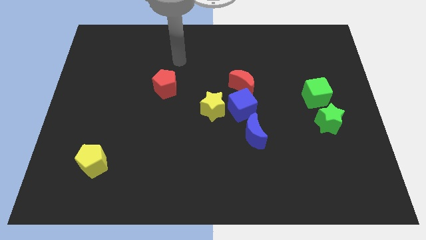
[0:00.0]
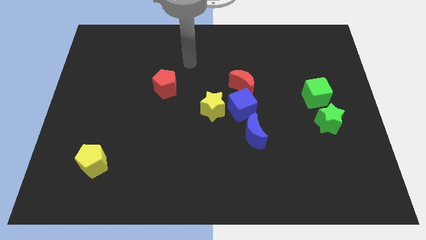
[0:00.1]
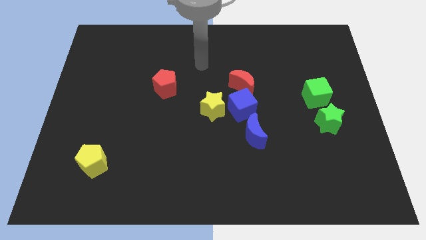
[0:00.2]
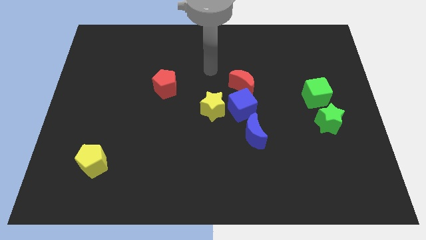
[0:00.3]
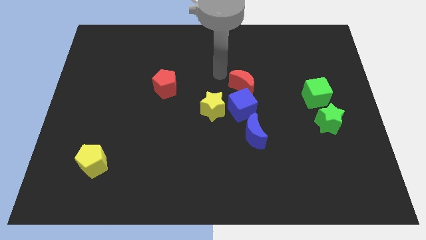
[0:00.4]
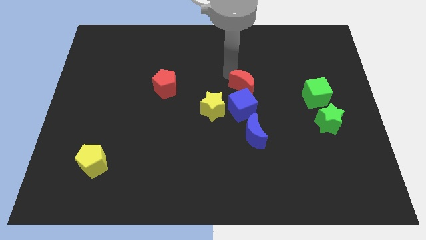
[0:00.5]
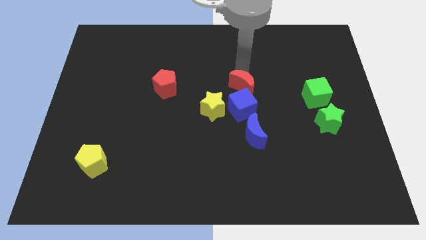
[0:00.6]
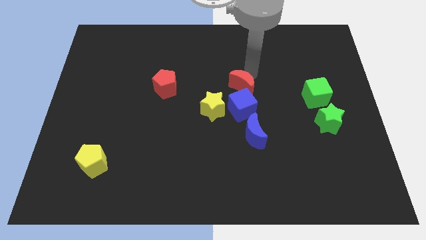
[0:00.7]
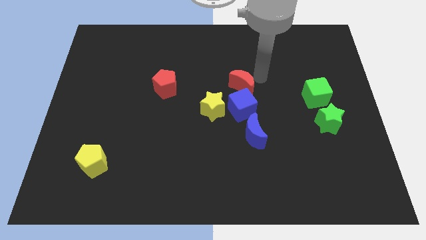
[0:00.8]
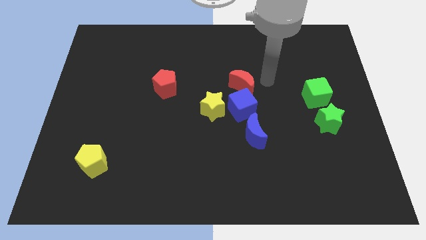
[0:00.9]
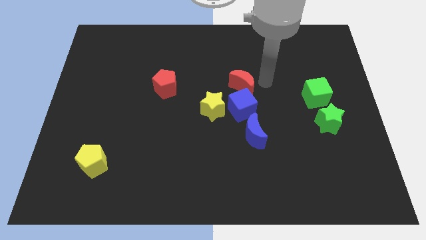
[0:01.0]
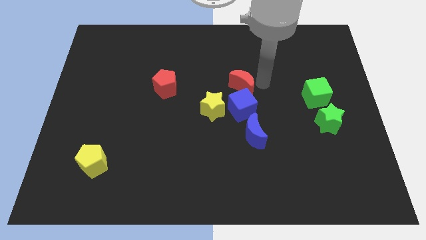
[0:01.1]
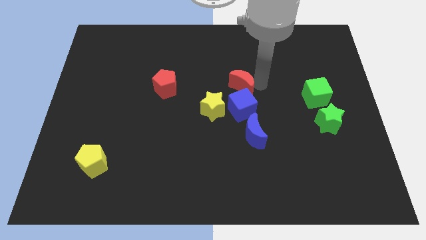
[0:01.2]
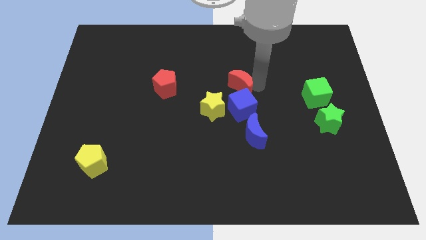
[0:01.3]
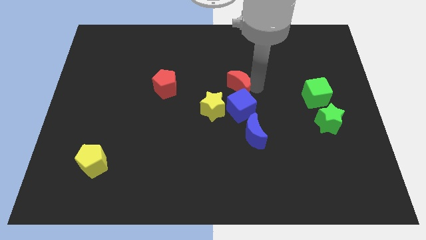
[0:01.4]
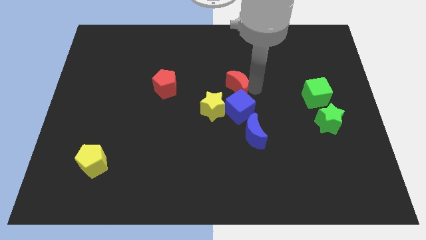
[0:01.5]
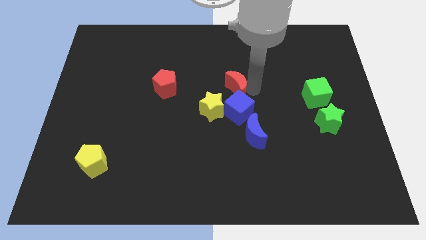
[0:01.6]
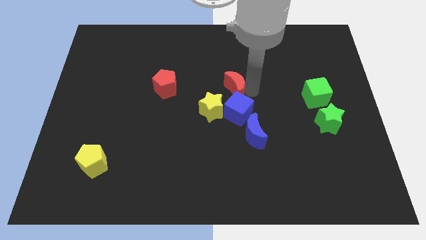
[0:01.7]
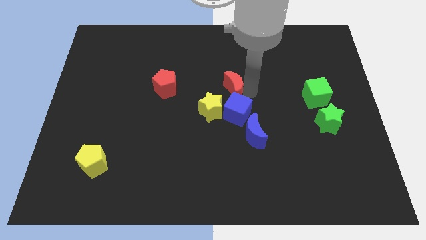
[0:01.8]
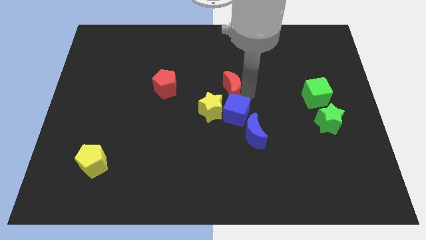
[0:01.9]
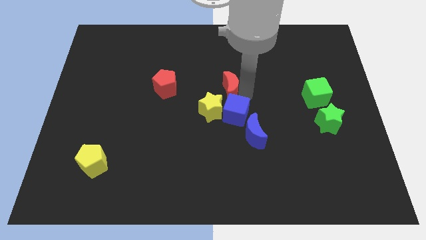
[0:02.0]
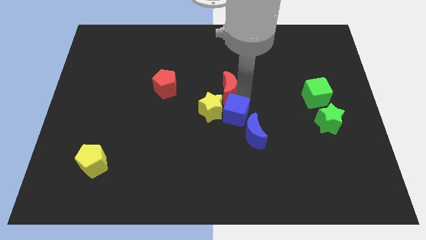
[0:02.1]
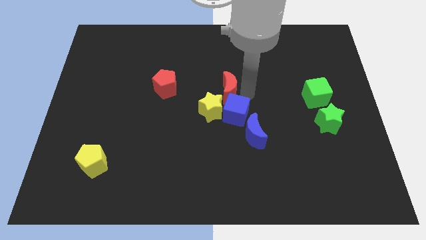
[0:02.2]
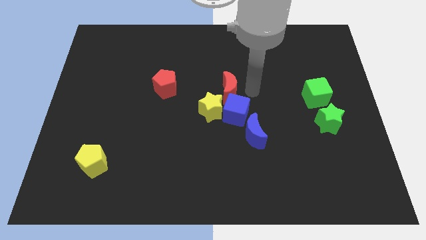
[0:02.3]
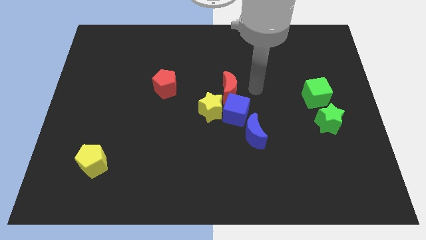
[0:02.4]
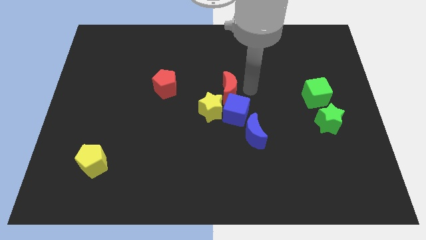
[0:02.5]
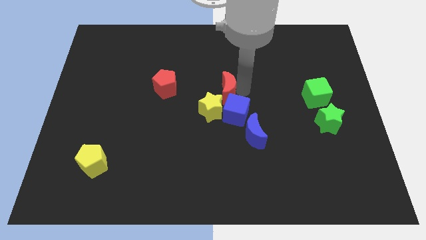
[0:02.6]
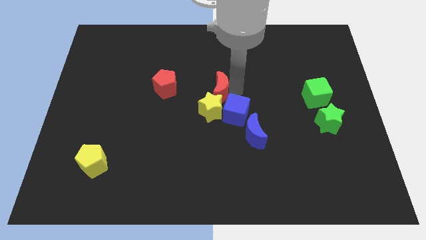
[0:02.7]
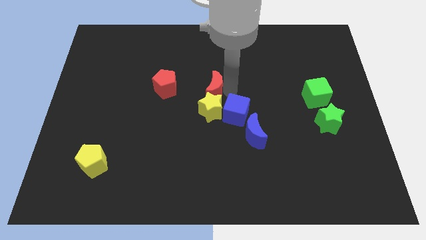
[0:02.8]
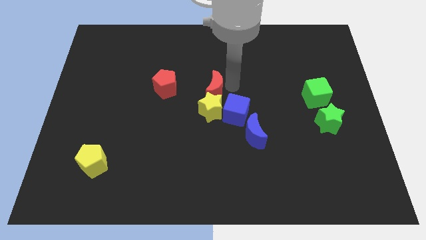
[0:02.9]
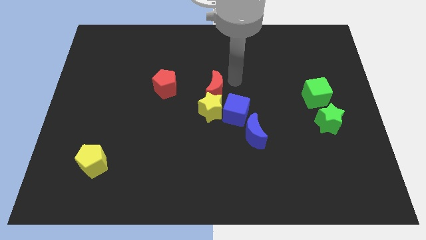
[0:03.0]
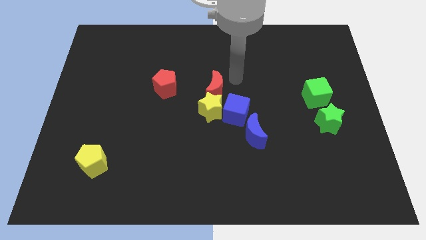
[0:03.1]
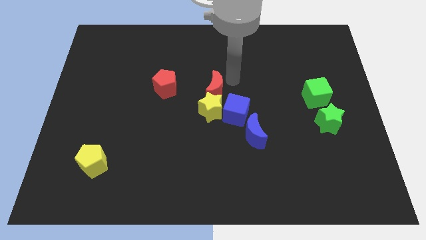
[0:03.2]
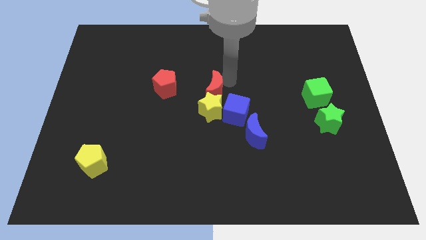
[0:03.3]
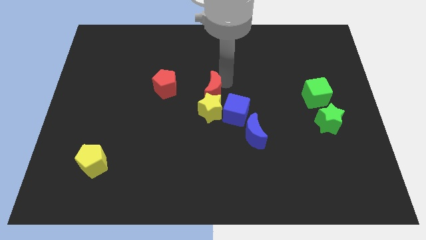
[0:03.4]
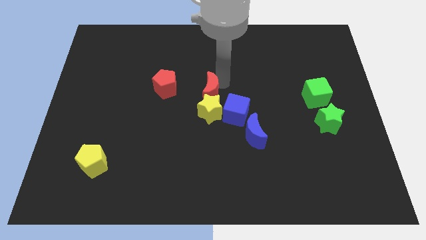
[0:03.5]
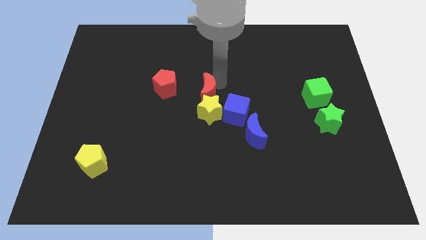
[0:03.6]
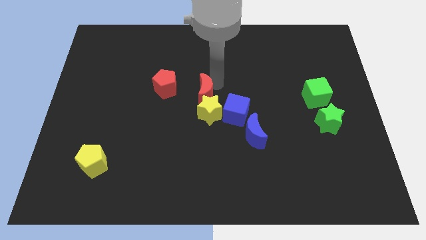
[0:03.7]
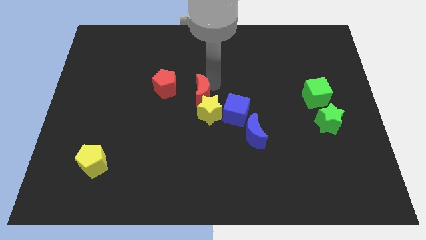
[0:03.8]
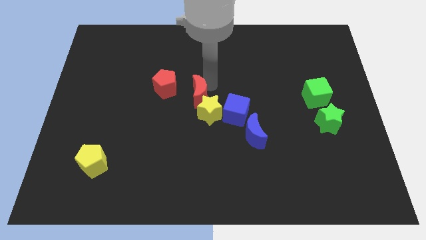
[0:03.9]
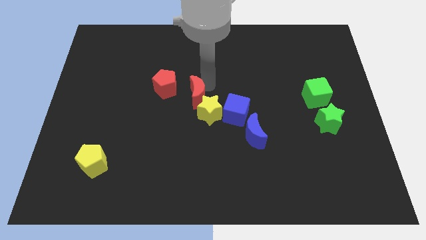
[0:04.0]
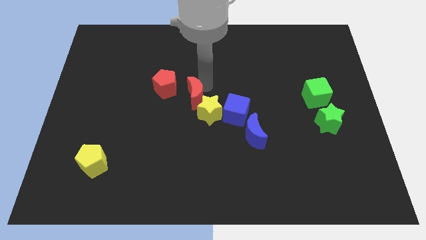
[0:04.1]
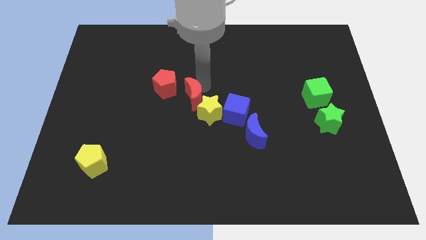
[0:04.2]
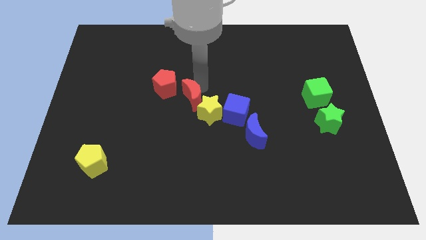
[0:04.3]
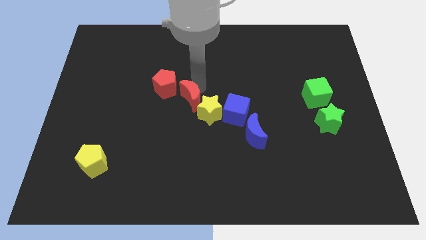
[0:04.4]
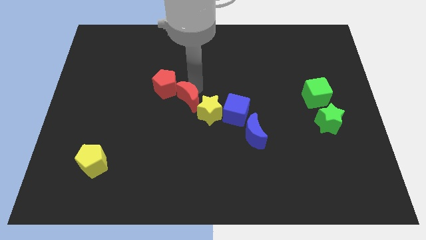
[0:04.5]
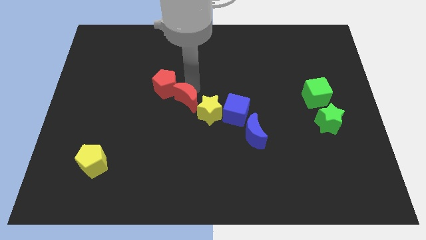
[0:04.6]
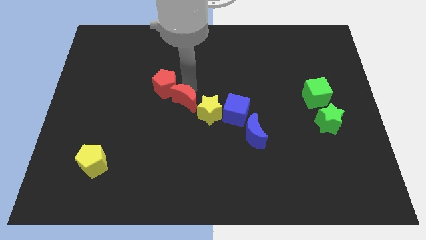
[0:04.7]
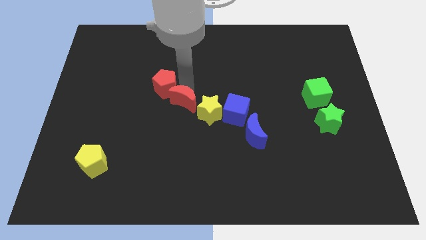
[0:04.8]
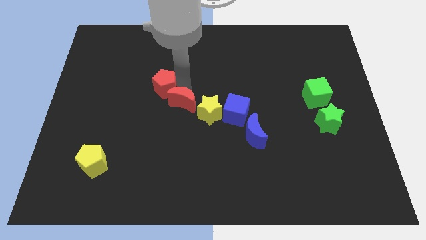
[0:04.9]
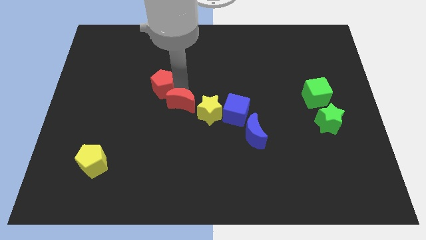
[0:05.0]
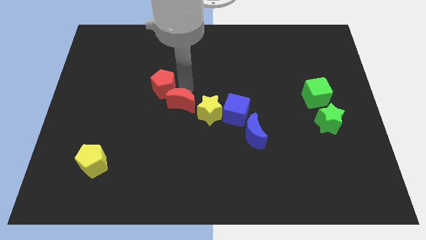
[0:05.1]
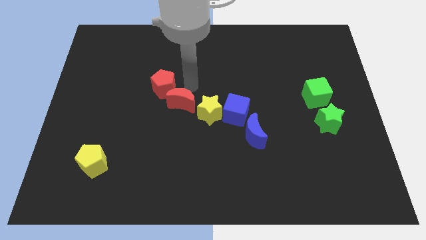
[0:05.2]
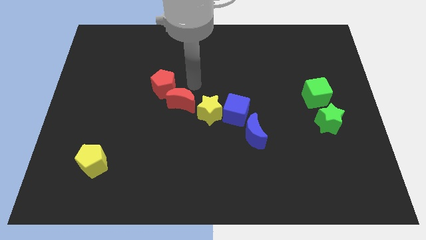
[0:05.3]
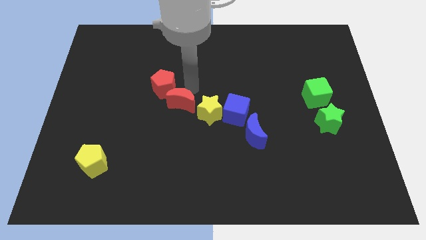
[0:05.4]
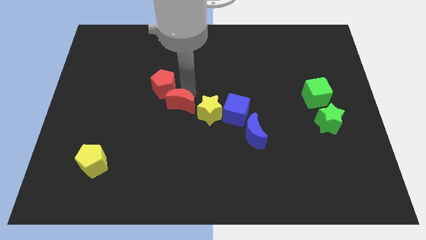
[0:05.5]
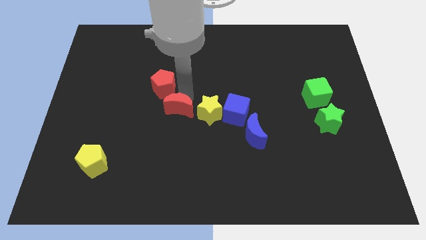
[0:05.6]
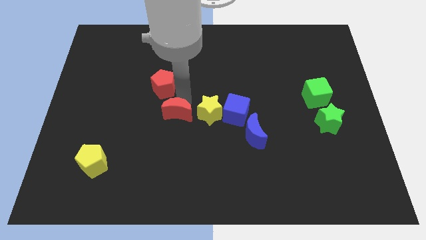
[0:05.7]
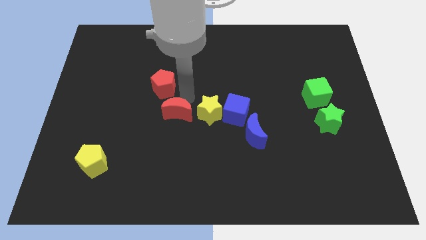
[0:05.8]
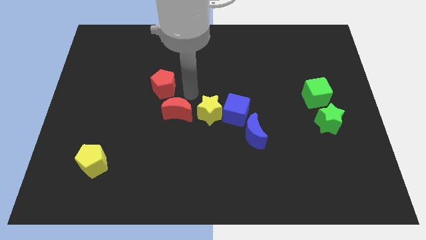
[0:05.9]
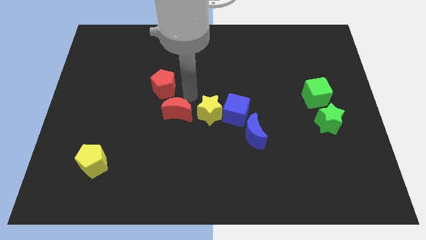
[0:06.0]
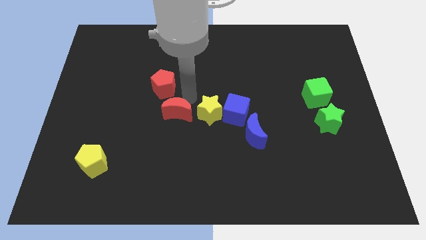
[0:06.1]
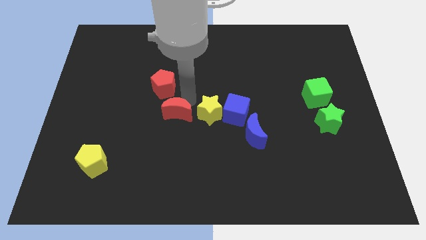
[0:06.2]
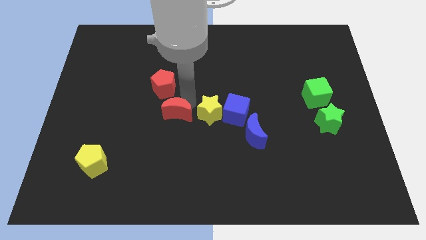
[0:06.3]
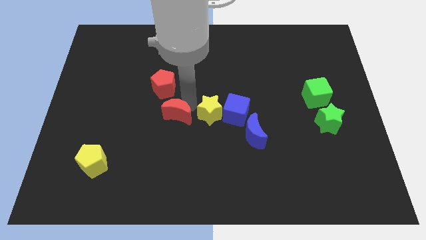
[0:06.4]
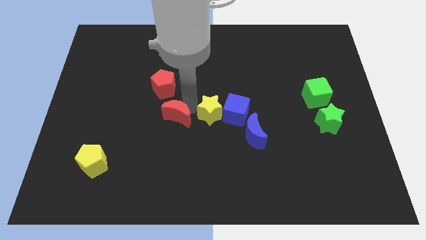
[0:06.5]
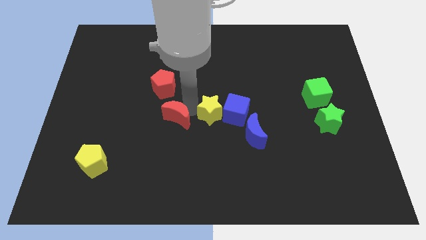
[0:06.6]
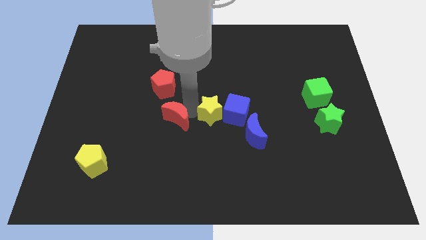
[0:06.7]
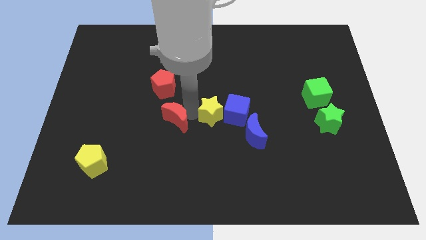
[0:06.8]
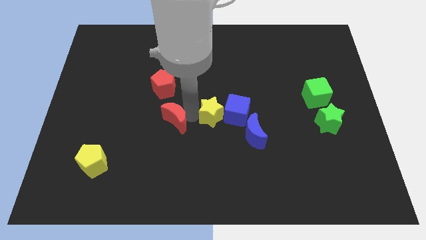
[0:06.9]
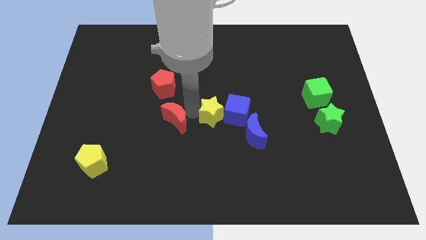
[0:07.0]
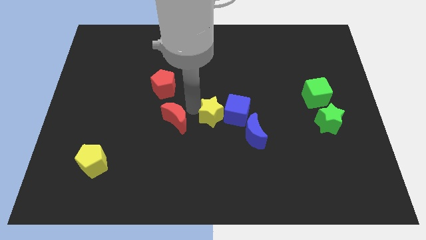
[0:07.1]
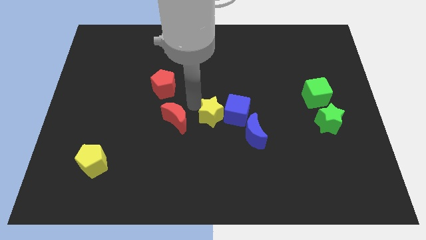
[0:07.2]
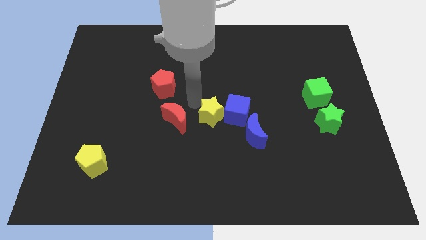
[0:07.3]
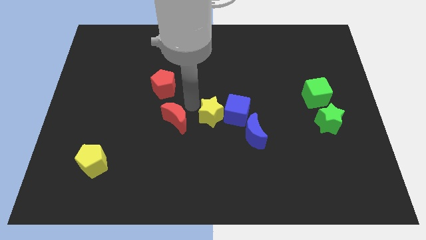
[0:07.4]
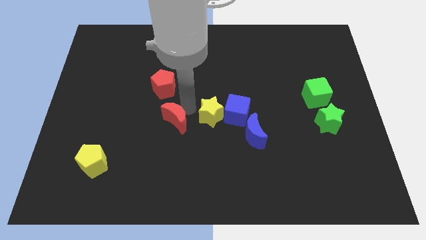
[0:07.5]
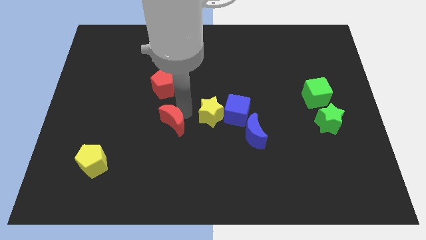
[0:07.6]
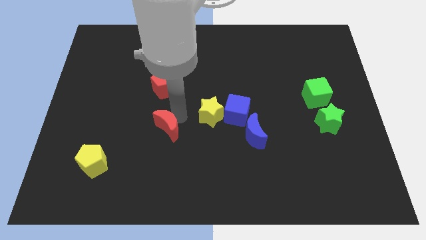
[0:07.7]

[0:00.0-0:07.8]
push the red moon down and then to the left

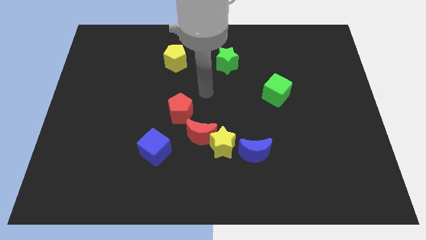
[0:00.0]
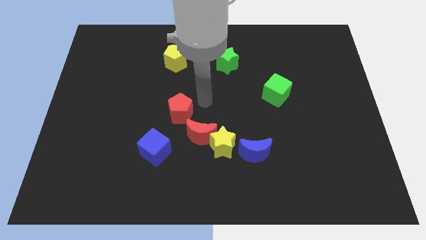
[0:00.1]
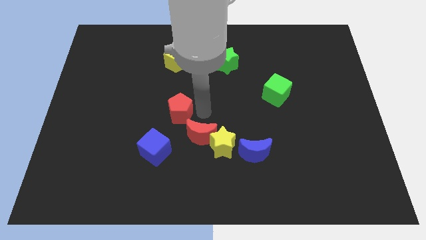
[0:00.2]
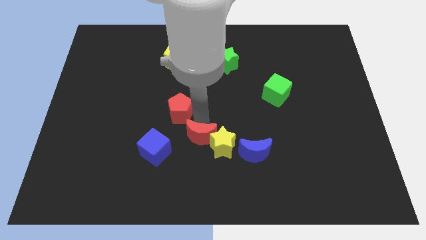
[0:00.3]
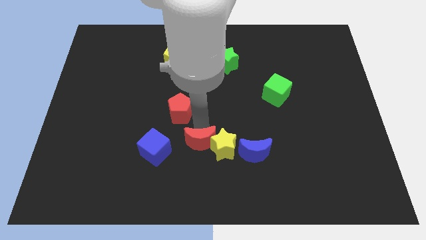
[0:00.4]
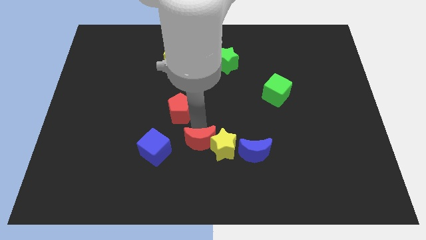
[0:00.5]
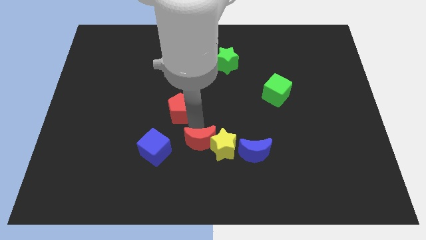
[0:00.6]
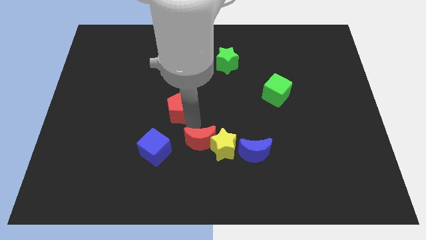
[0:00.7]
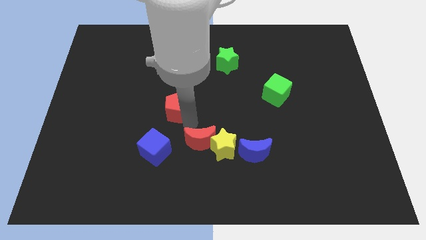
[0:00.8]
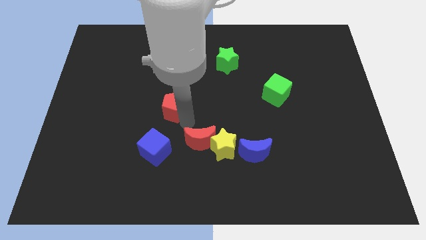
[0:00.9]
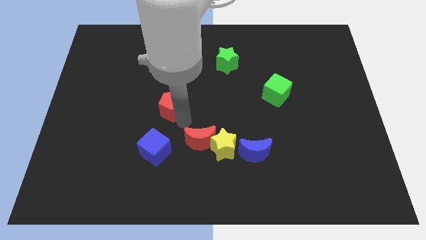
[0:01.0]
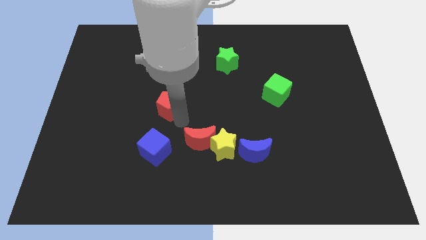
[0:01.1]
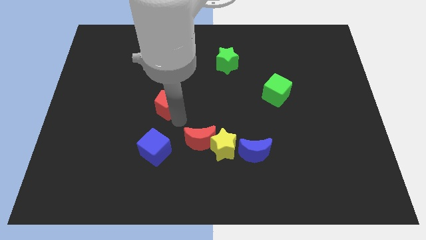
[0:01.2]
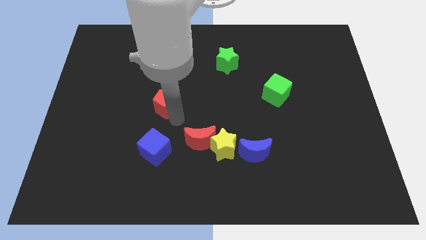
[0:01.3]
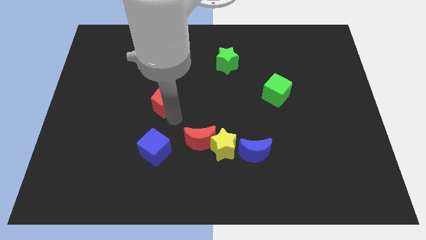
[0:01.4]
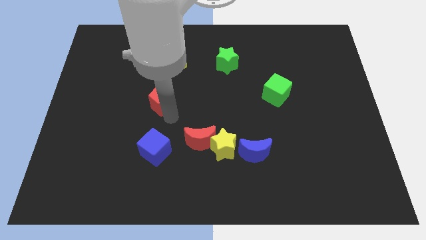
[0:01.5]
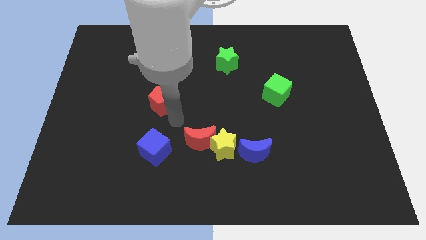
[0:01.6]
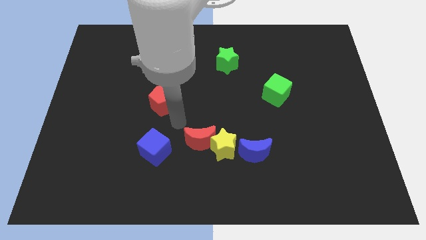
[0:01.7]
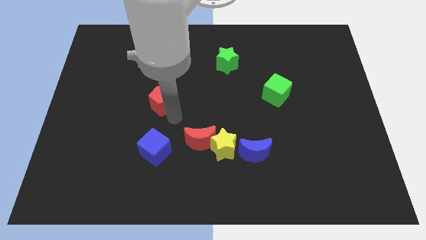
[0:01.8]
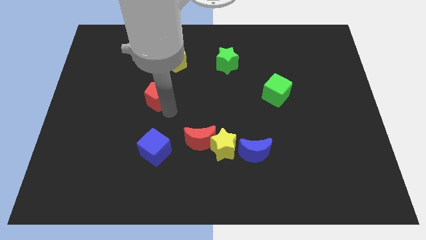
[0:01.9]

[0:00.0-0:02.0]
move the red pentagon a little diagonally upwards and to the left
